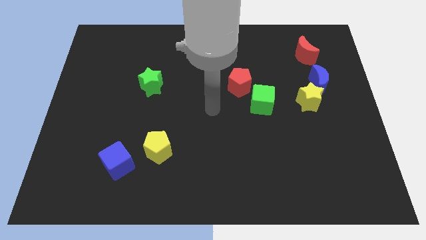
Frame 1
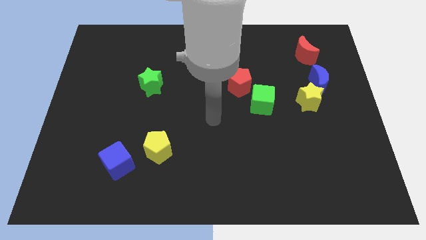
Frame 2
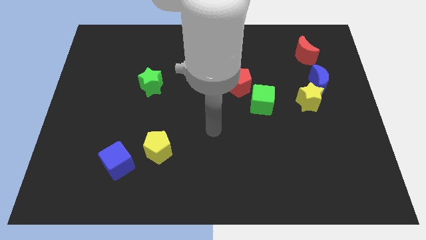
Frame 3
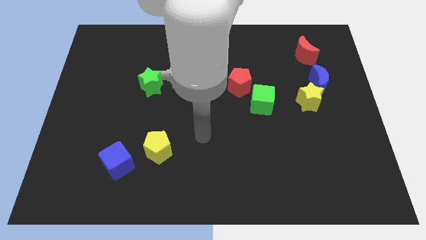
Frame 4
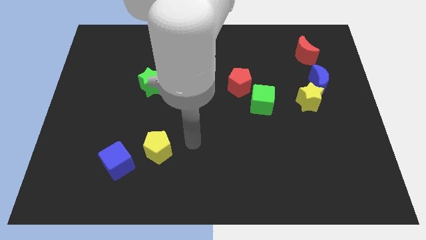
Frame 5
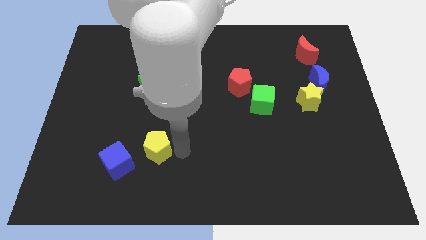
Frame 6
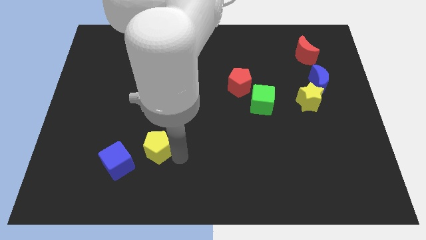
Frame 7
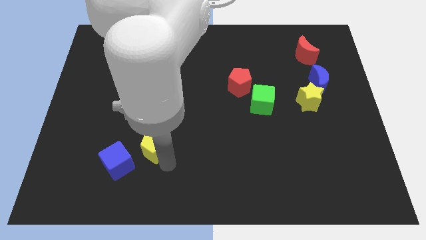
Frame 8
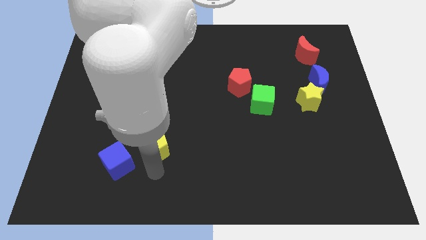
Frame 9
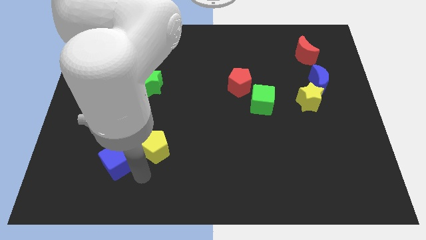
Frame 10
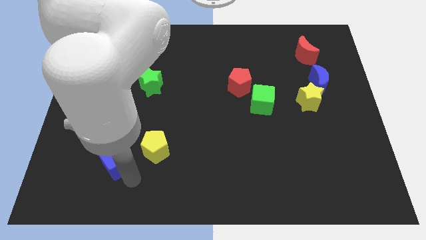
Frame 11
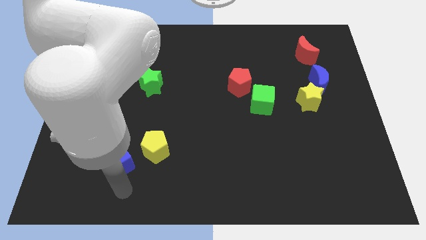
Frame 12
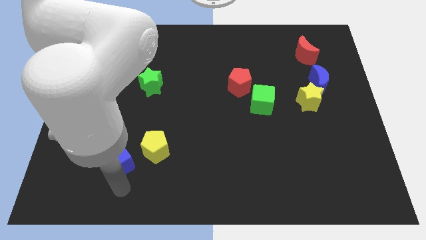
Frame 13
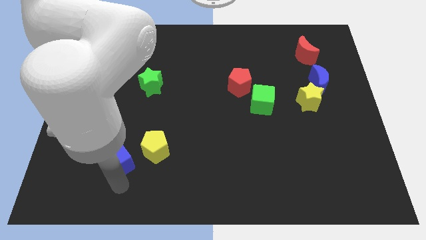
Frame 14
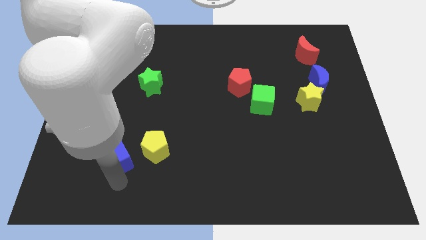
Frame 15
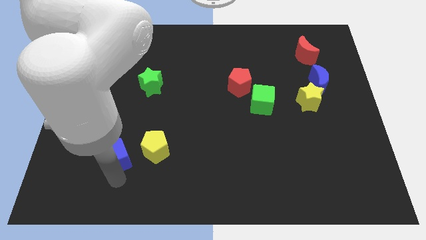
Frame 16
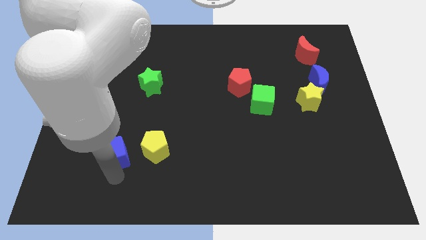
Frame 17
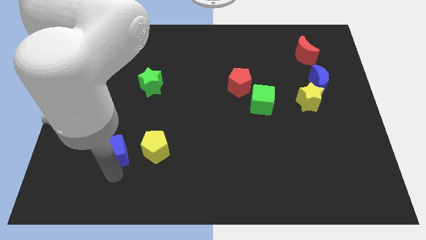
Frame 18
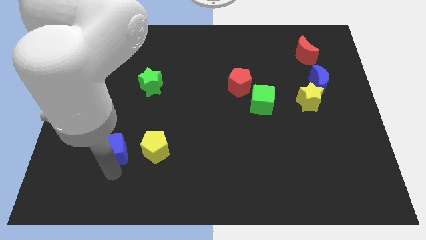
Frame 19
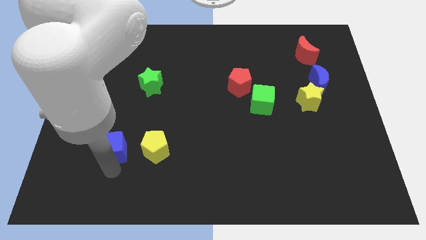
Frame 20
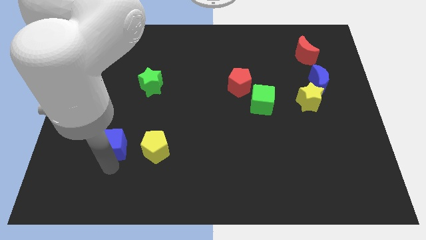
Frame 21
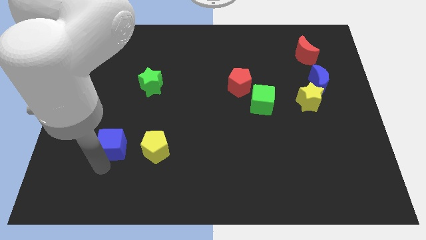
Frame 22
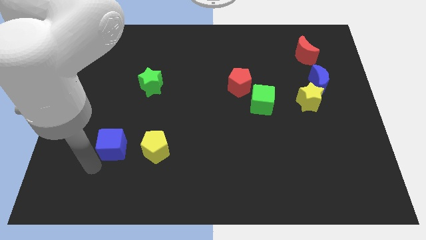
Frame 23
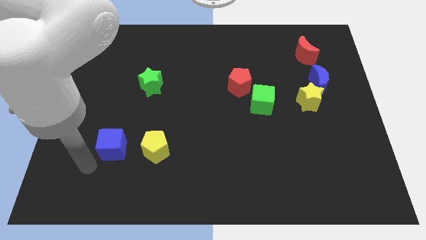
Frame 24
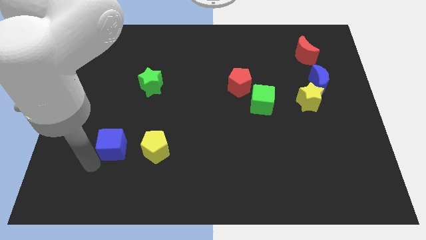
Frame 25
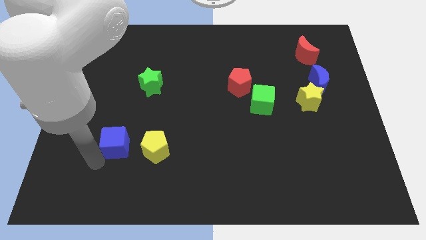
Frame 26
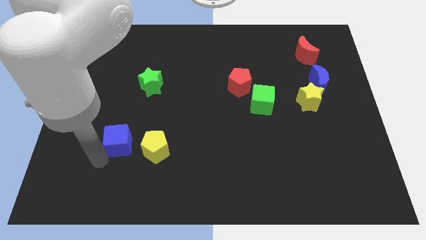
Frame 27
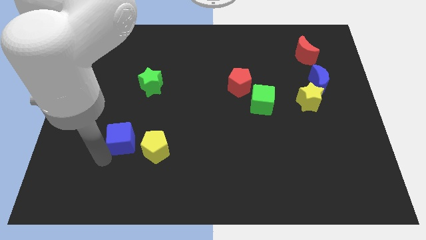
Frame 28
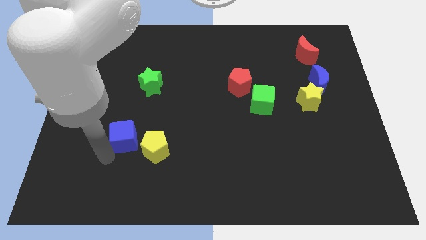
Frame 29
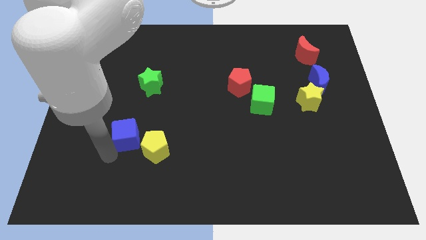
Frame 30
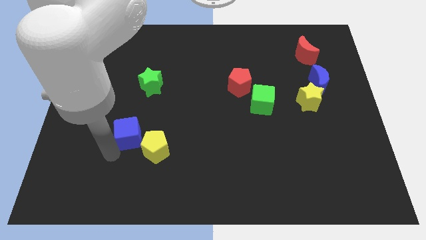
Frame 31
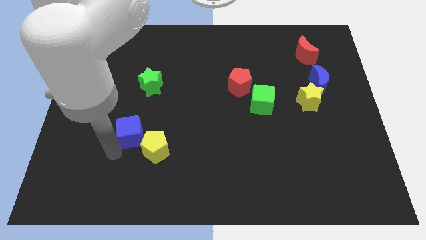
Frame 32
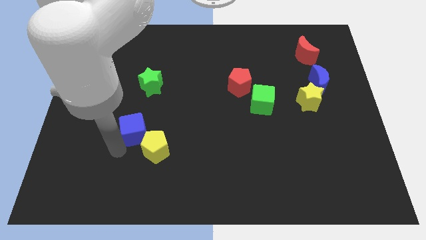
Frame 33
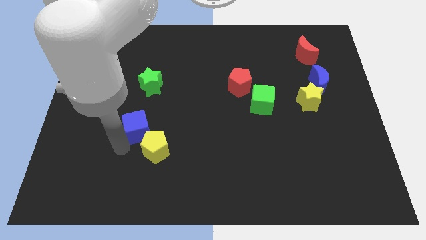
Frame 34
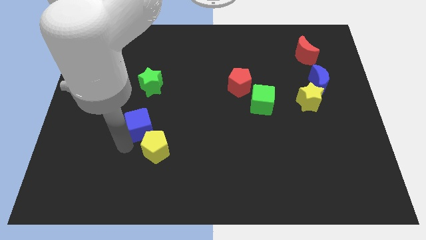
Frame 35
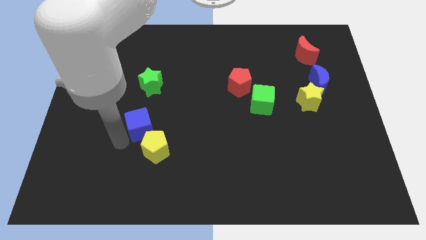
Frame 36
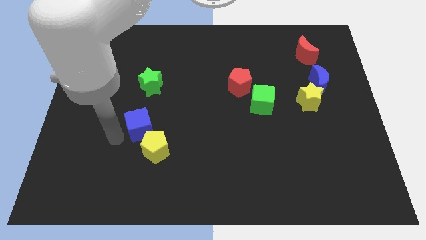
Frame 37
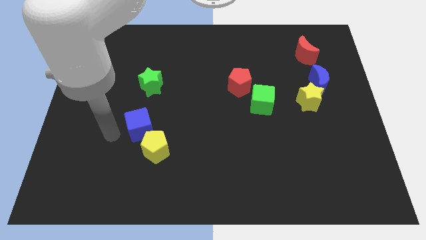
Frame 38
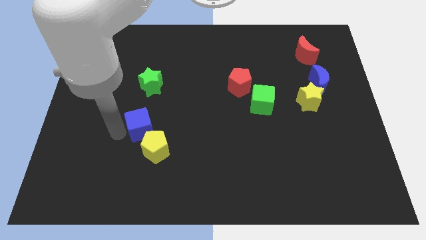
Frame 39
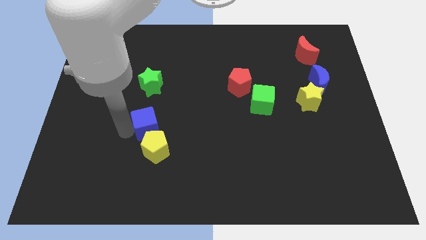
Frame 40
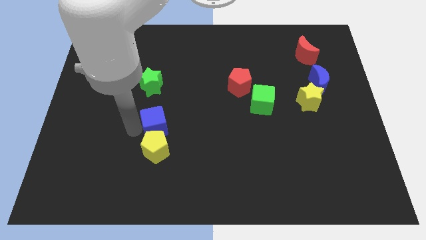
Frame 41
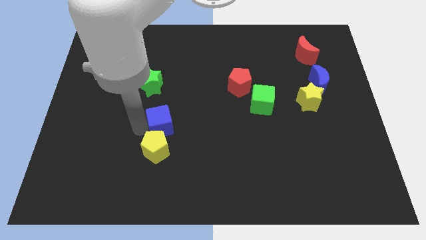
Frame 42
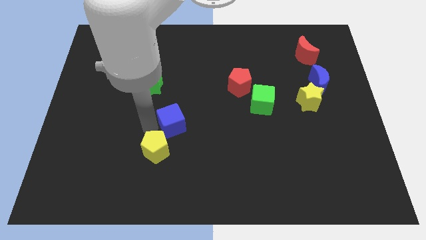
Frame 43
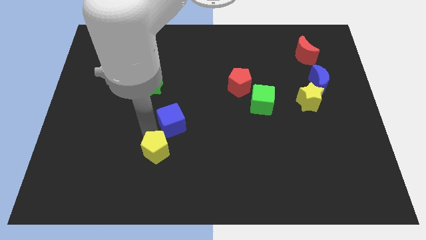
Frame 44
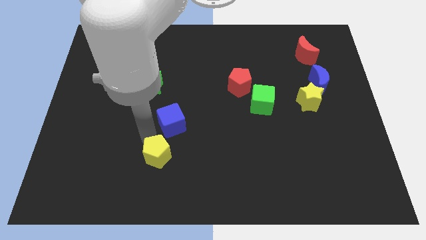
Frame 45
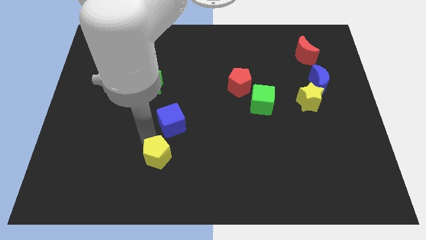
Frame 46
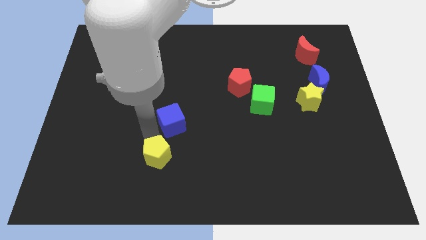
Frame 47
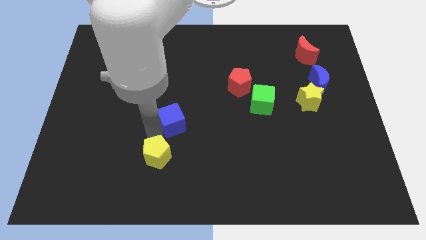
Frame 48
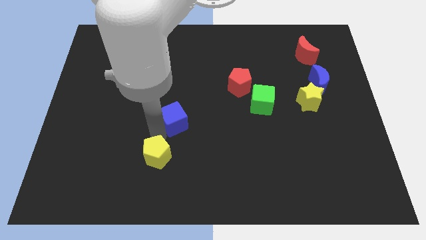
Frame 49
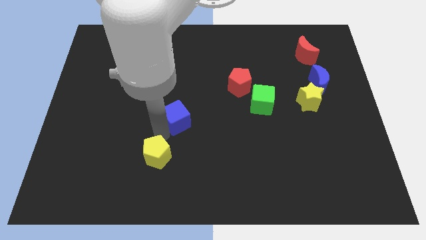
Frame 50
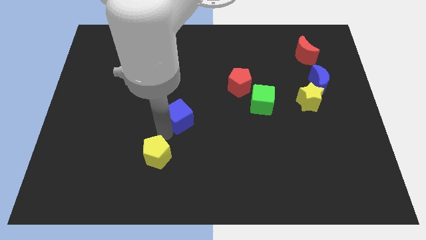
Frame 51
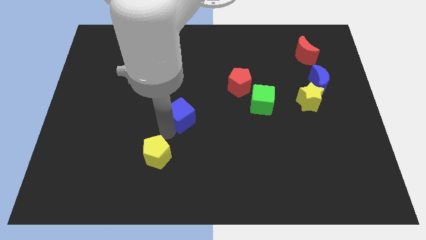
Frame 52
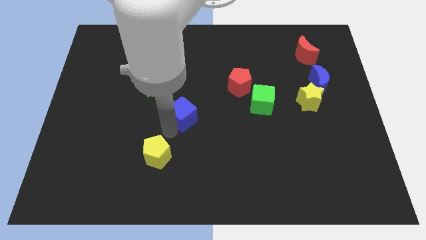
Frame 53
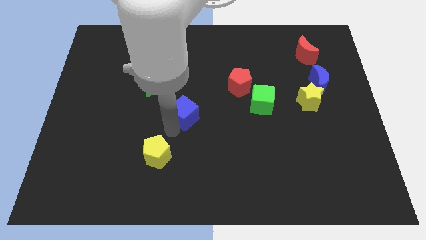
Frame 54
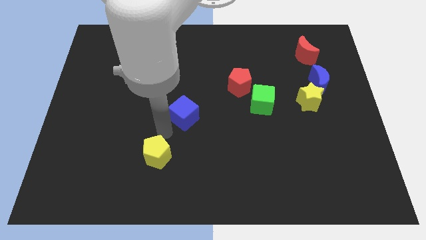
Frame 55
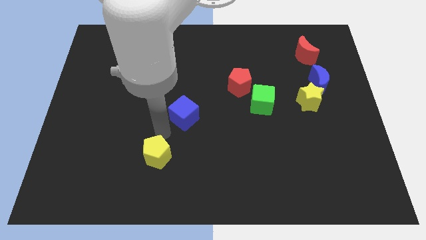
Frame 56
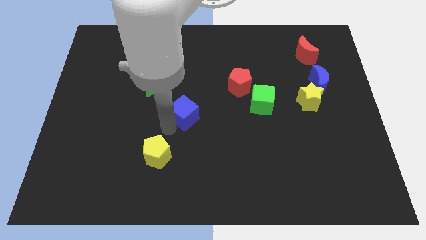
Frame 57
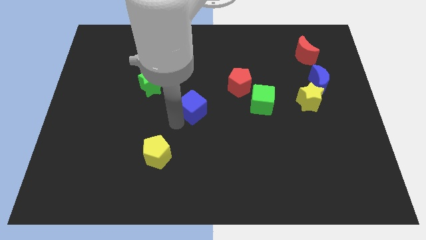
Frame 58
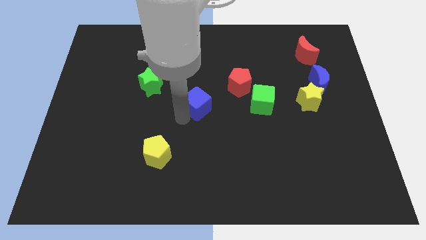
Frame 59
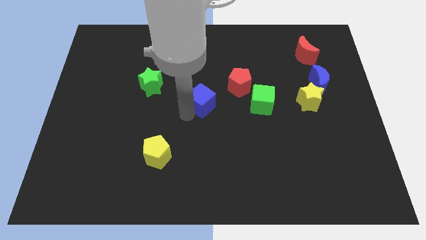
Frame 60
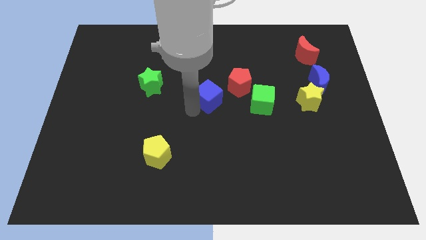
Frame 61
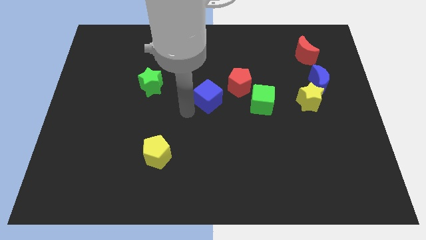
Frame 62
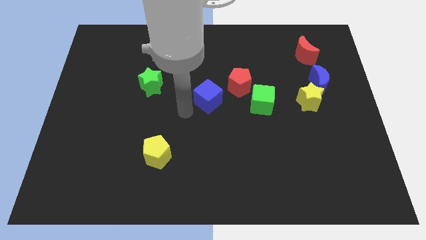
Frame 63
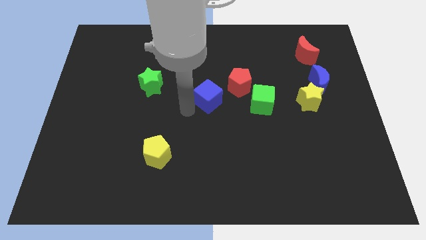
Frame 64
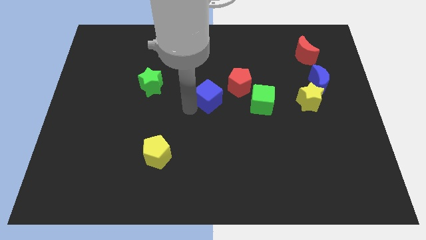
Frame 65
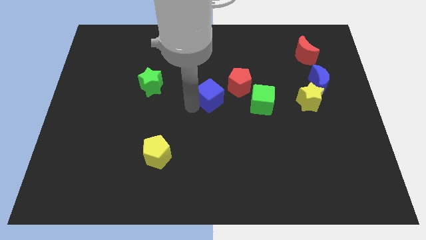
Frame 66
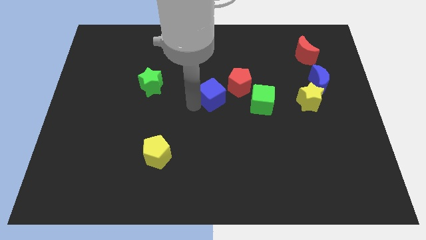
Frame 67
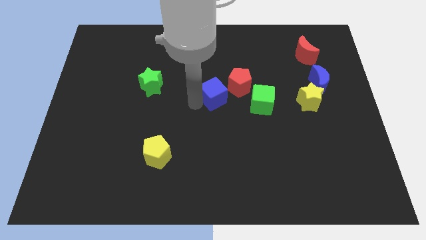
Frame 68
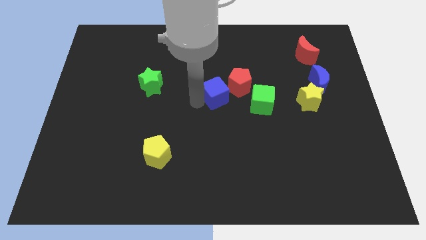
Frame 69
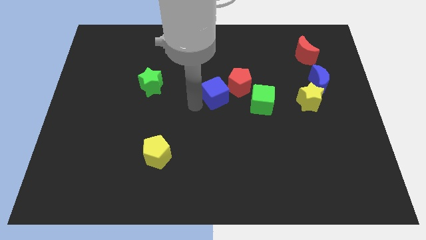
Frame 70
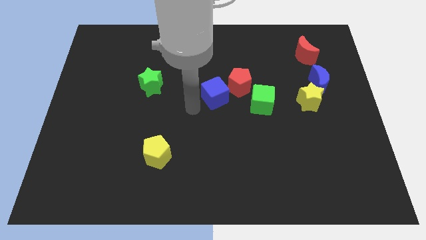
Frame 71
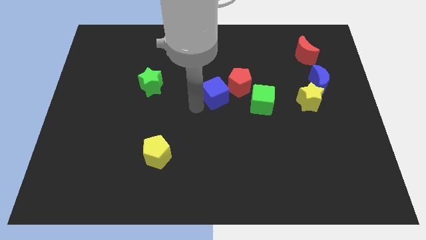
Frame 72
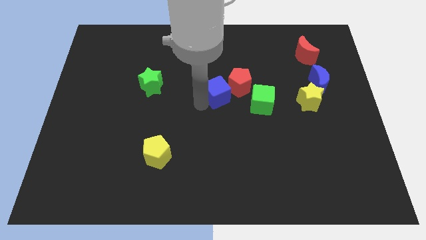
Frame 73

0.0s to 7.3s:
push the blue cube close to the red pentagon
